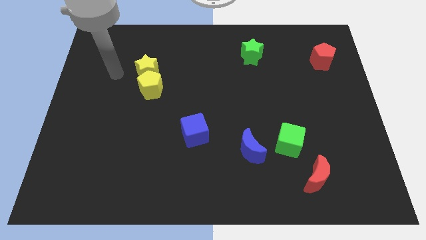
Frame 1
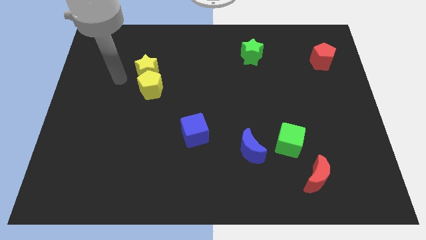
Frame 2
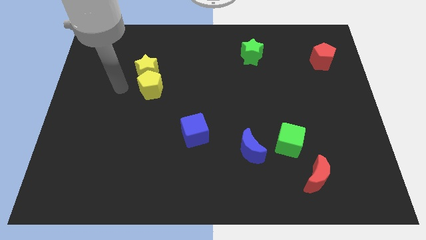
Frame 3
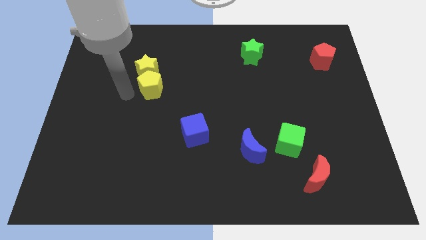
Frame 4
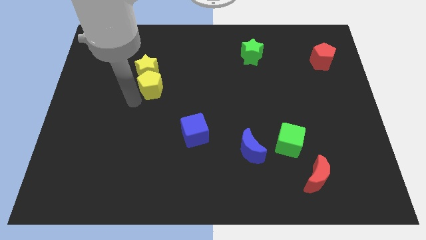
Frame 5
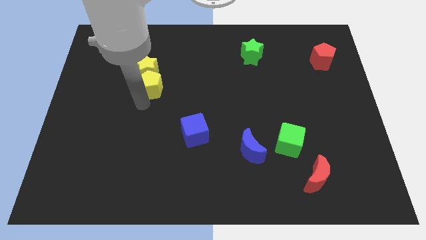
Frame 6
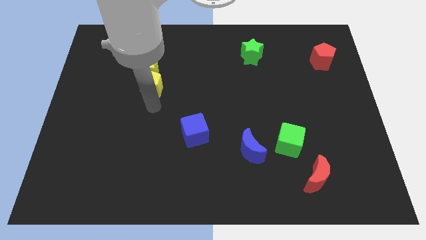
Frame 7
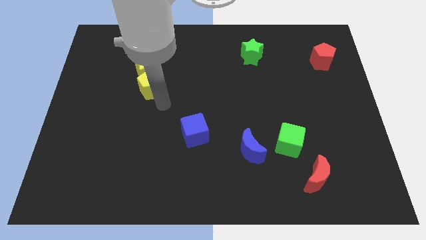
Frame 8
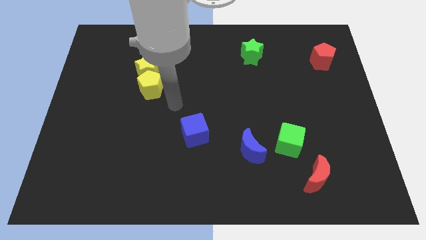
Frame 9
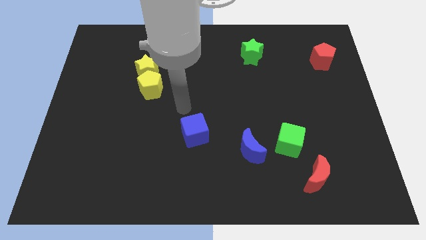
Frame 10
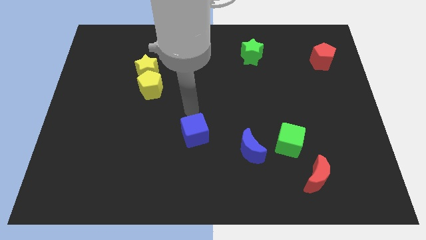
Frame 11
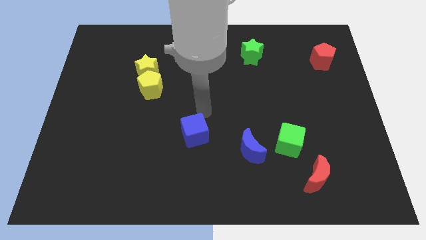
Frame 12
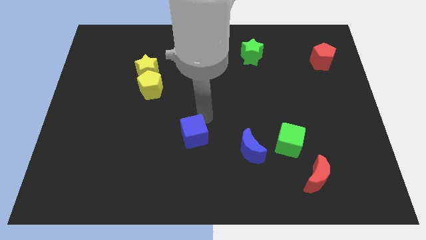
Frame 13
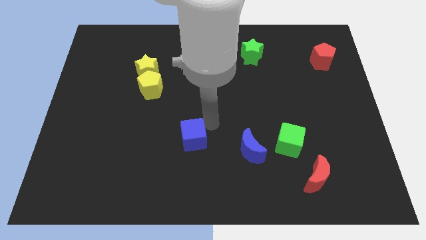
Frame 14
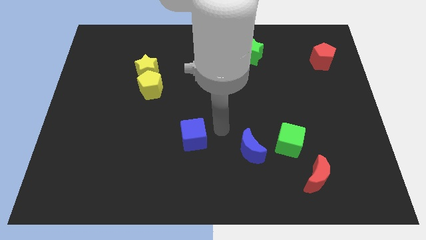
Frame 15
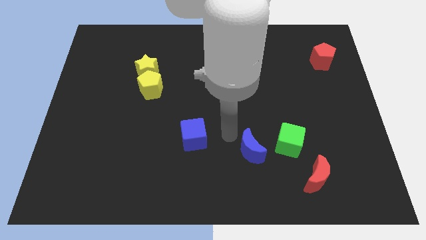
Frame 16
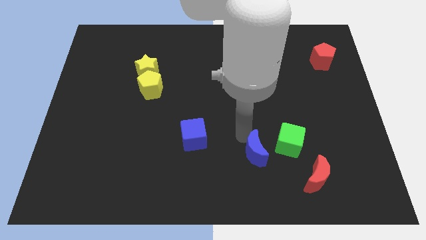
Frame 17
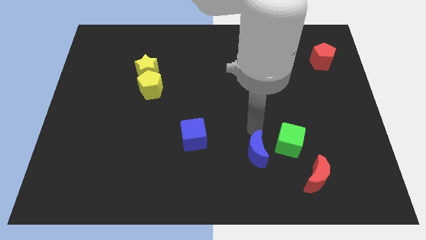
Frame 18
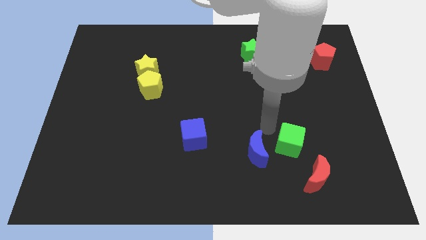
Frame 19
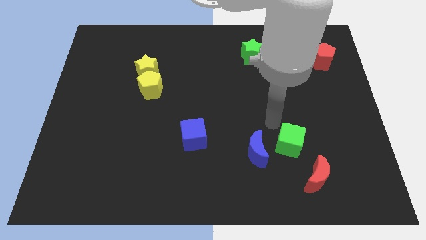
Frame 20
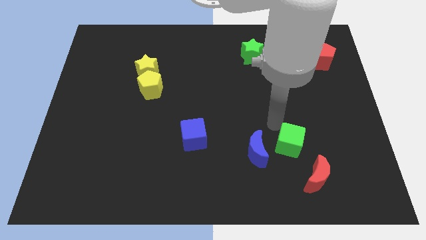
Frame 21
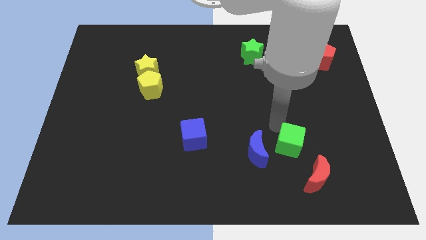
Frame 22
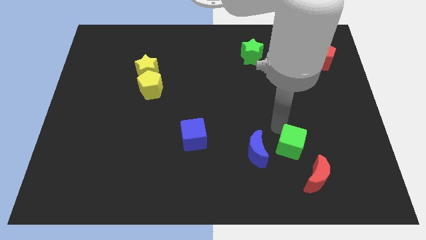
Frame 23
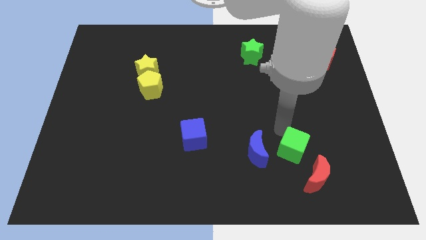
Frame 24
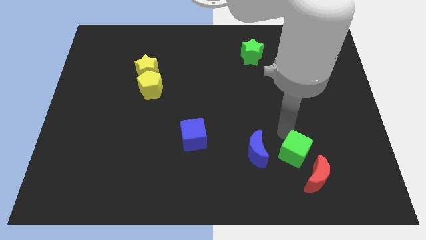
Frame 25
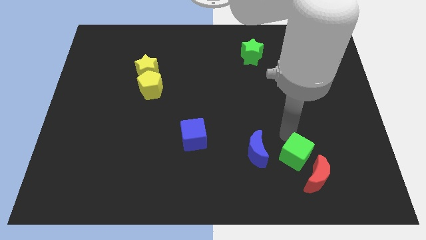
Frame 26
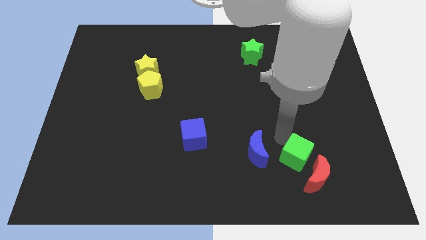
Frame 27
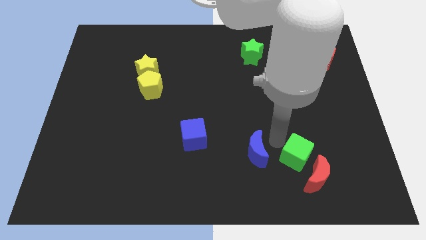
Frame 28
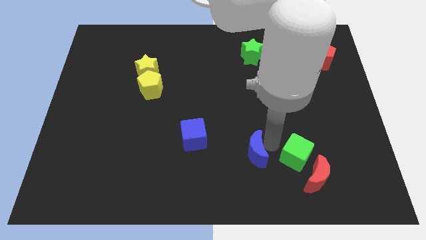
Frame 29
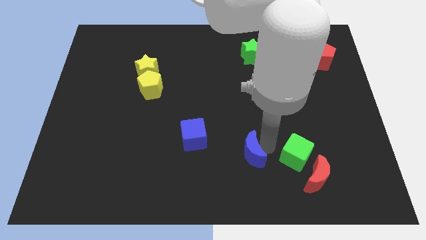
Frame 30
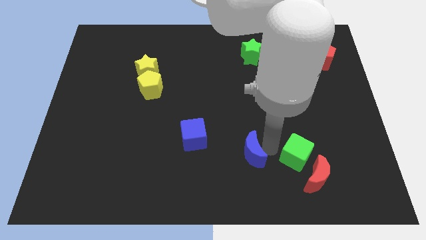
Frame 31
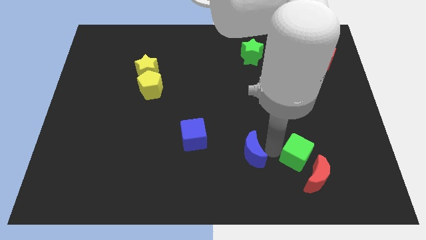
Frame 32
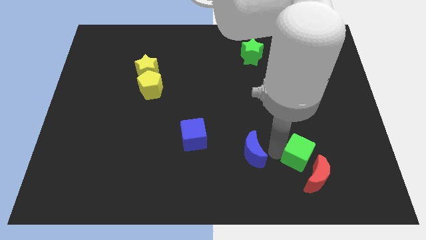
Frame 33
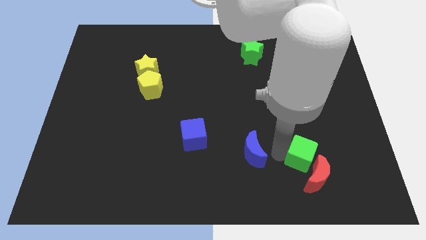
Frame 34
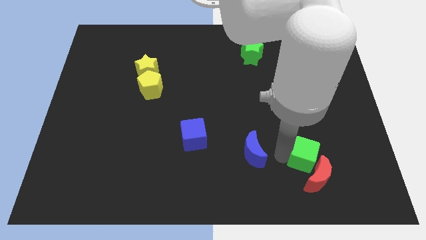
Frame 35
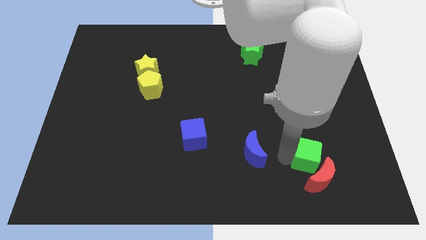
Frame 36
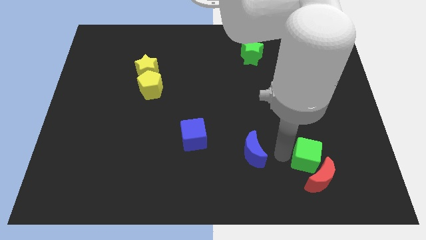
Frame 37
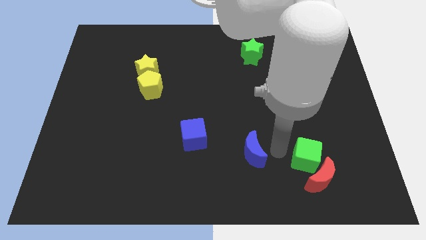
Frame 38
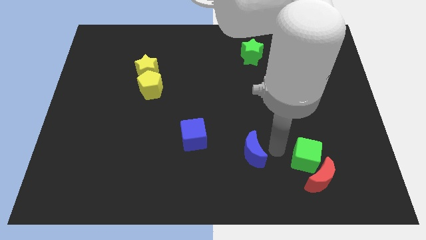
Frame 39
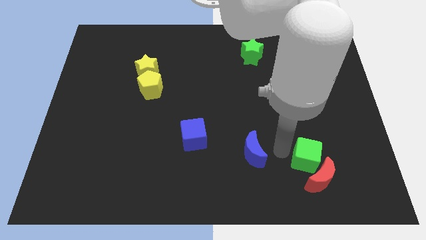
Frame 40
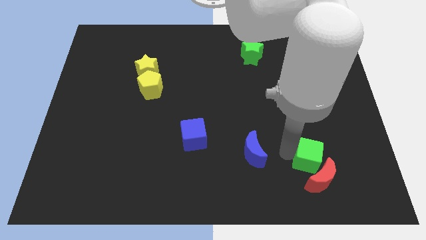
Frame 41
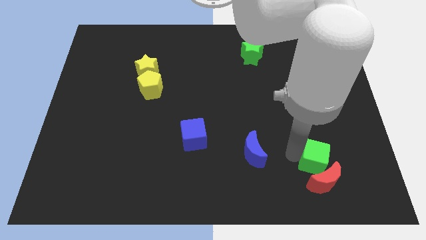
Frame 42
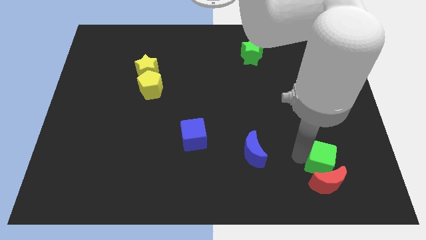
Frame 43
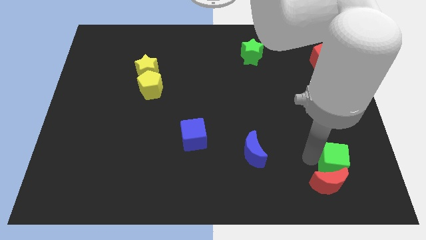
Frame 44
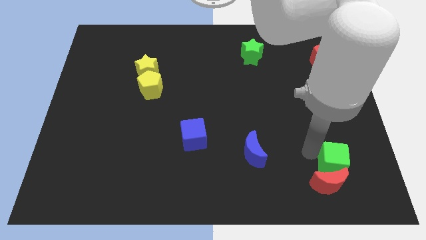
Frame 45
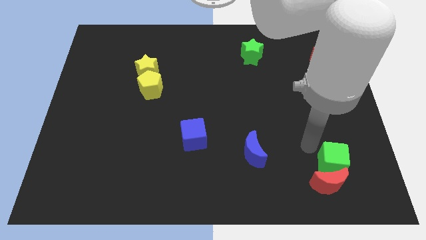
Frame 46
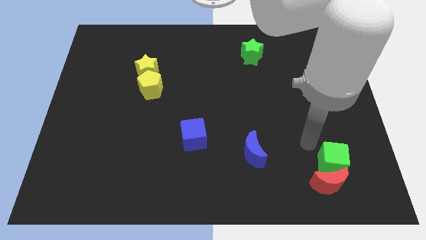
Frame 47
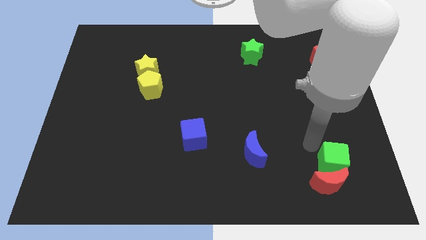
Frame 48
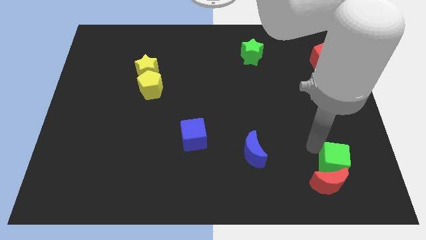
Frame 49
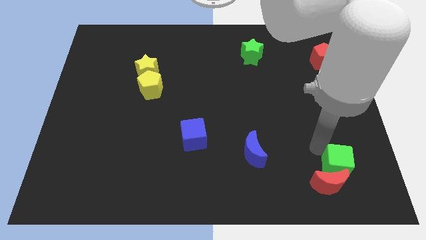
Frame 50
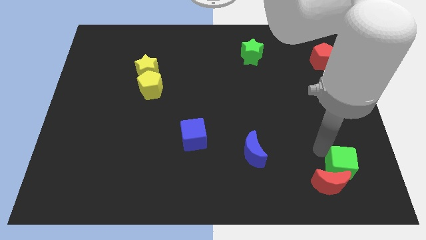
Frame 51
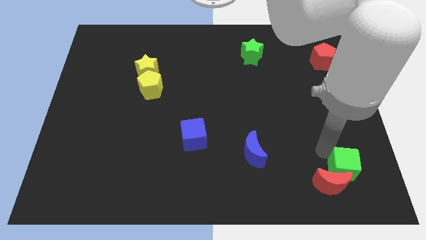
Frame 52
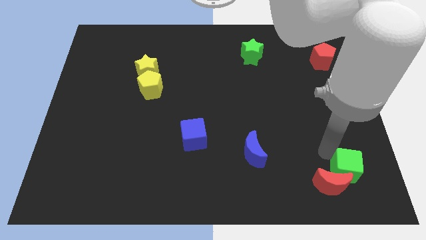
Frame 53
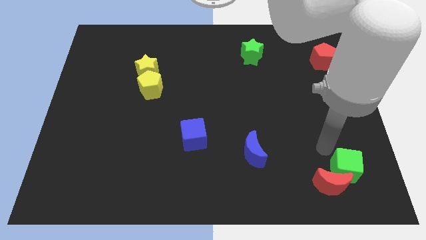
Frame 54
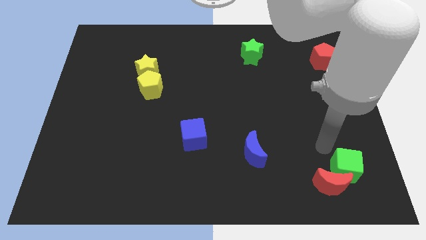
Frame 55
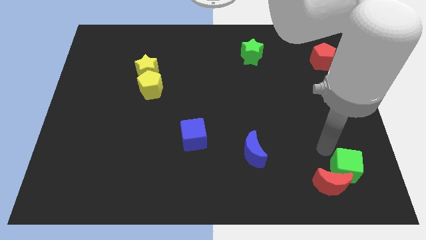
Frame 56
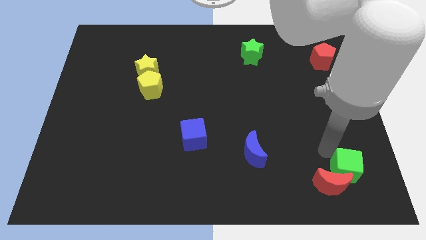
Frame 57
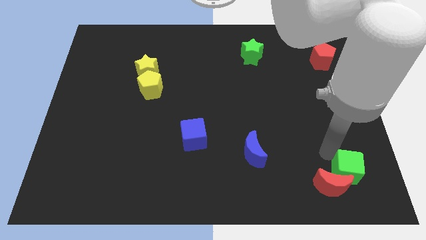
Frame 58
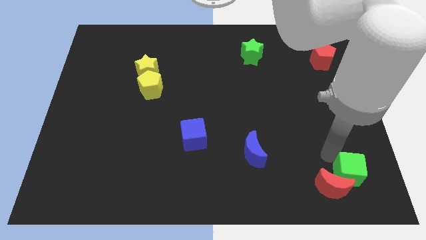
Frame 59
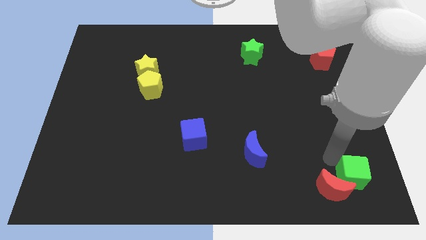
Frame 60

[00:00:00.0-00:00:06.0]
push the green cube to the lower right corner

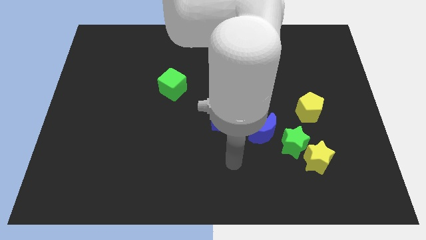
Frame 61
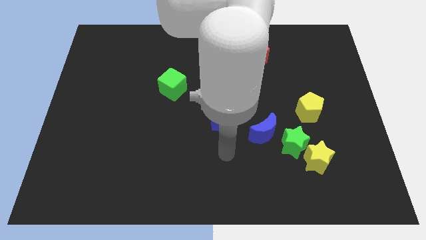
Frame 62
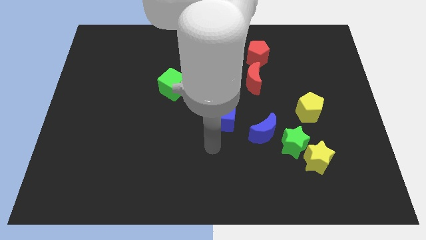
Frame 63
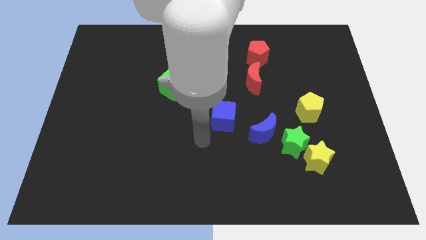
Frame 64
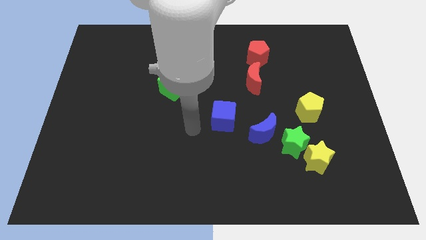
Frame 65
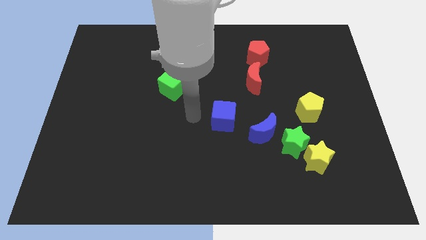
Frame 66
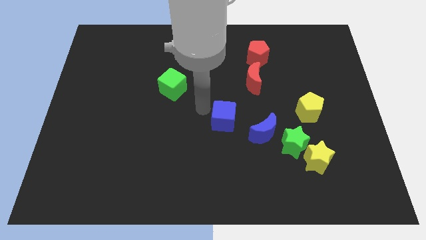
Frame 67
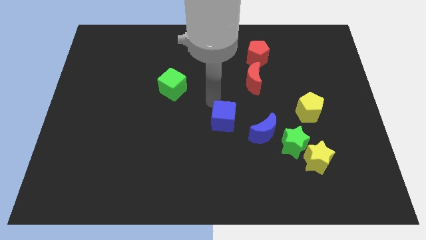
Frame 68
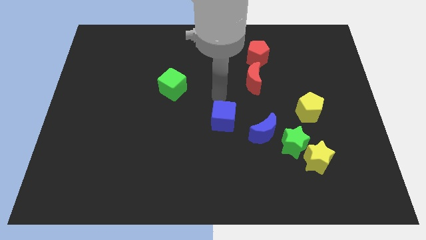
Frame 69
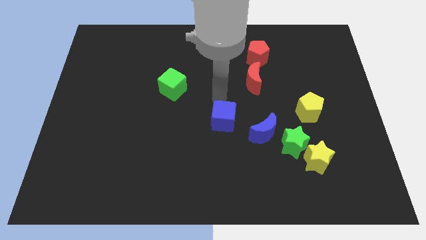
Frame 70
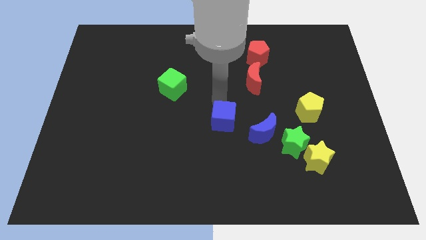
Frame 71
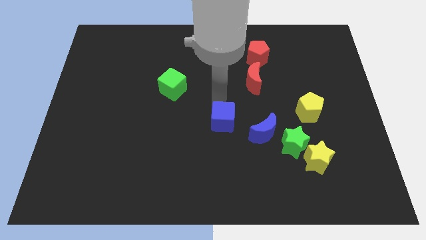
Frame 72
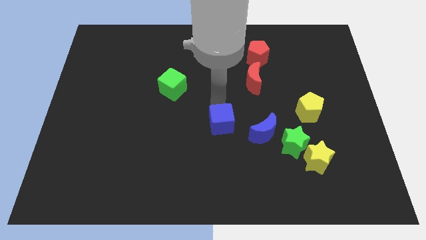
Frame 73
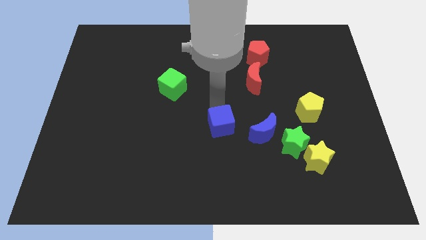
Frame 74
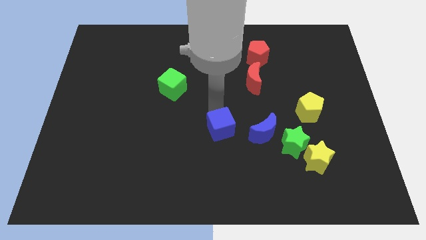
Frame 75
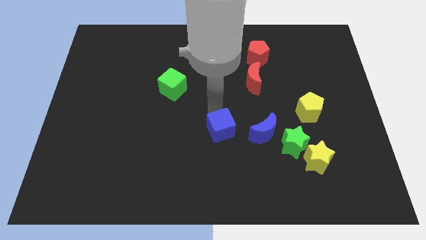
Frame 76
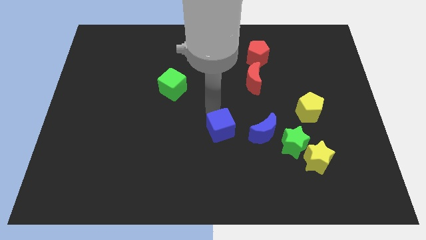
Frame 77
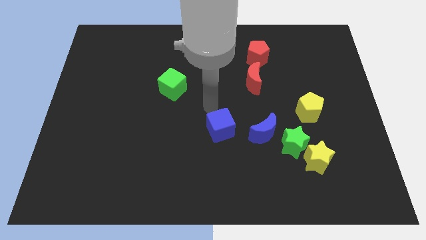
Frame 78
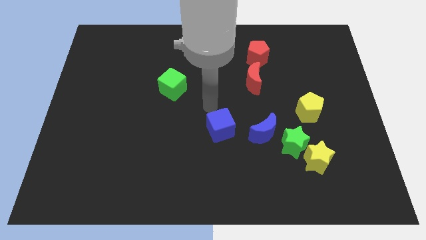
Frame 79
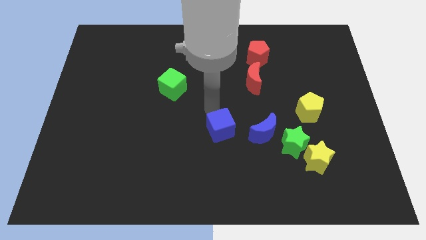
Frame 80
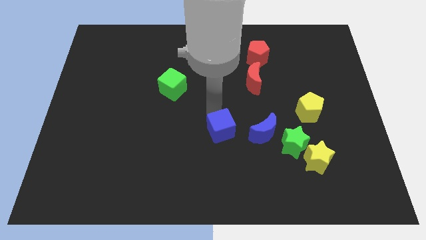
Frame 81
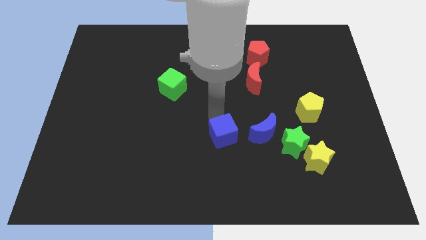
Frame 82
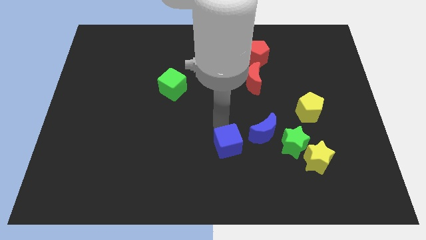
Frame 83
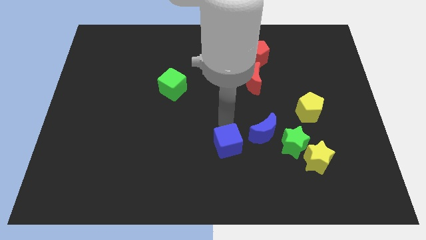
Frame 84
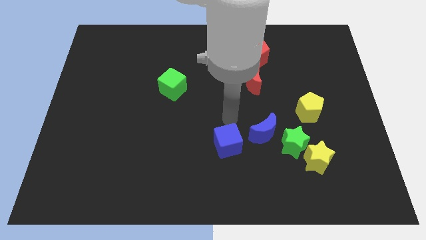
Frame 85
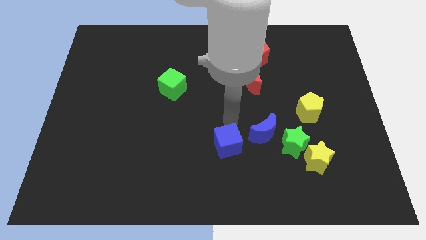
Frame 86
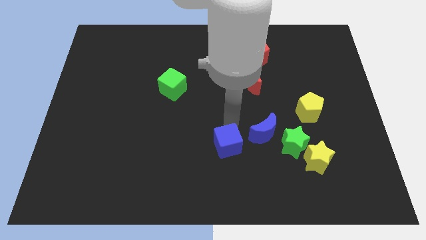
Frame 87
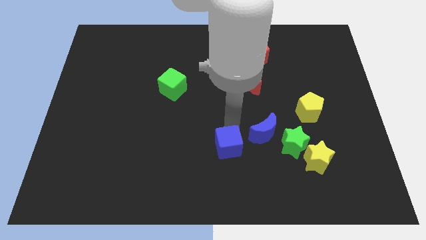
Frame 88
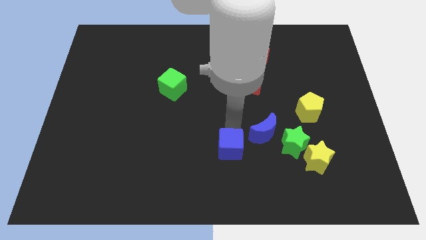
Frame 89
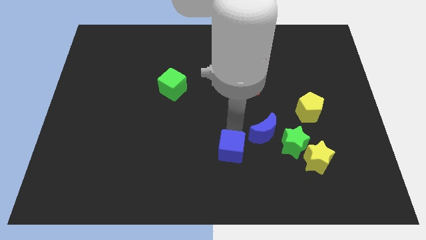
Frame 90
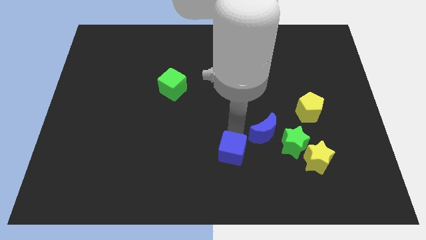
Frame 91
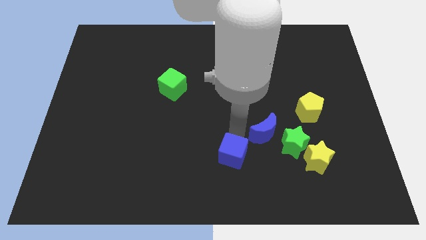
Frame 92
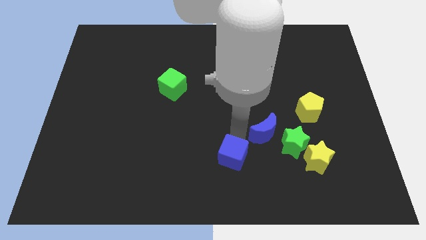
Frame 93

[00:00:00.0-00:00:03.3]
slide the blue cube to the bottom side
